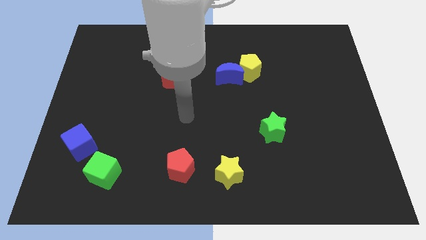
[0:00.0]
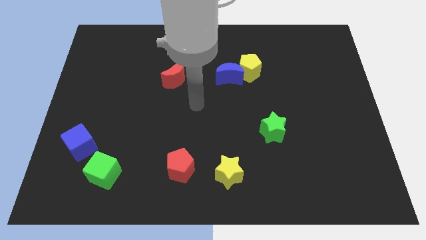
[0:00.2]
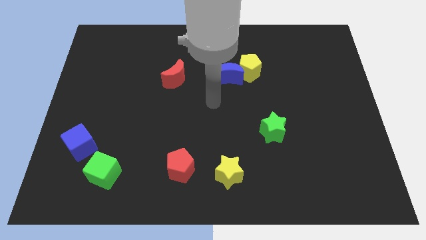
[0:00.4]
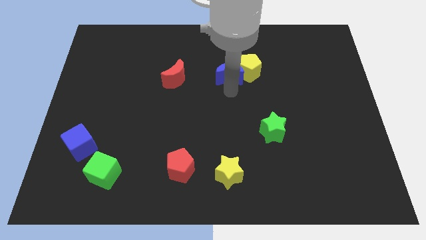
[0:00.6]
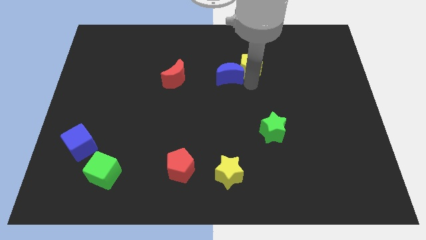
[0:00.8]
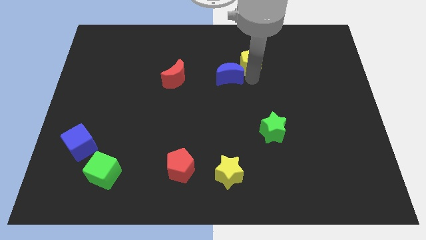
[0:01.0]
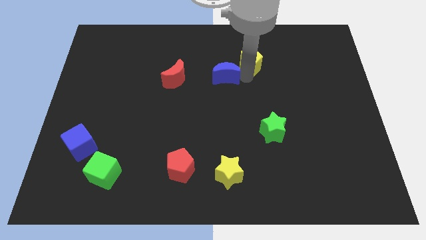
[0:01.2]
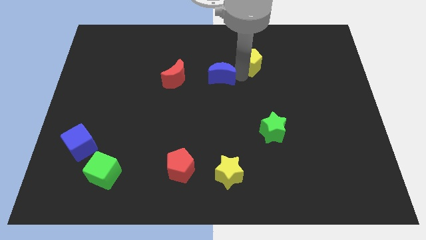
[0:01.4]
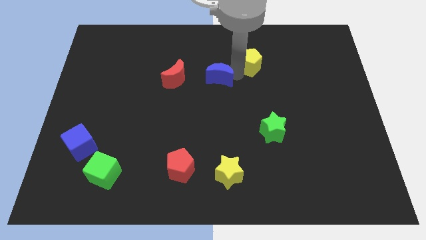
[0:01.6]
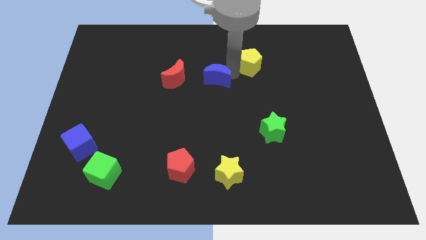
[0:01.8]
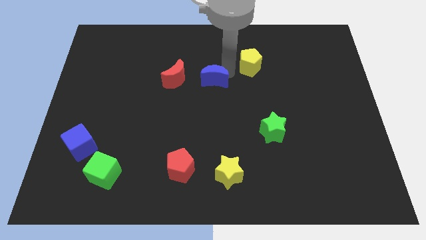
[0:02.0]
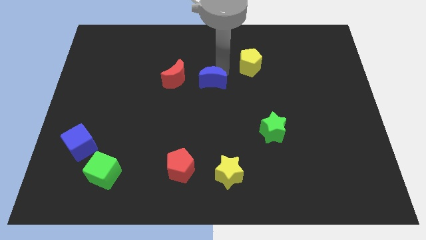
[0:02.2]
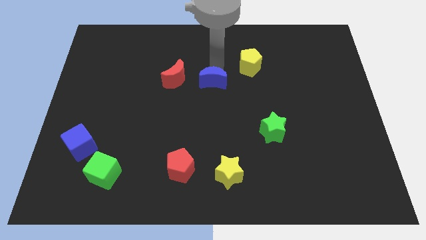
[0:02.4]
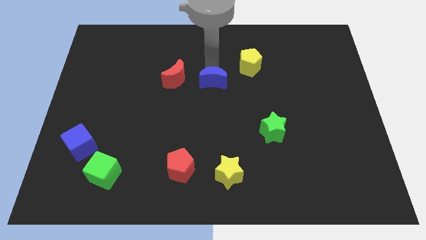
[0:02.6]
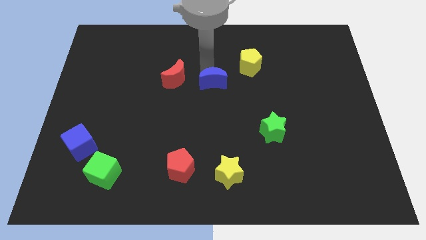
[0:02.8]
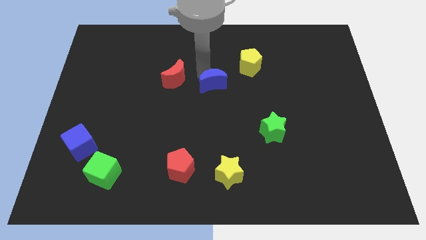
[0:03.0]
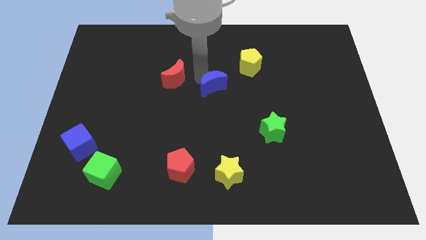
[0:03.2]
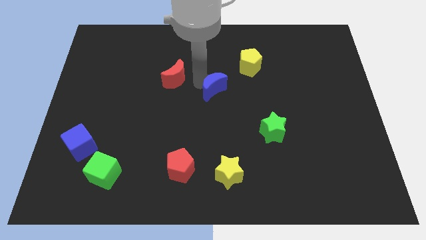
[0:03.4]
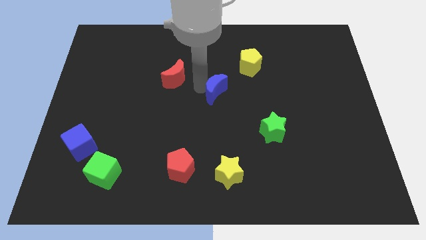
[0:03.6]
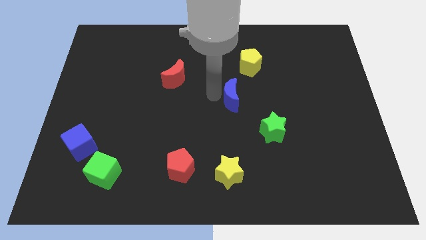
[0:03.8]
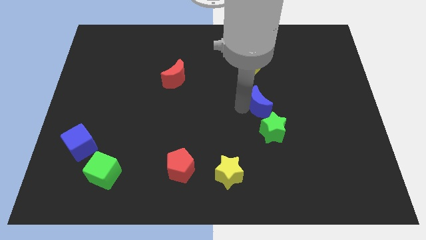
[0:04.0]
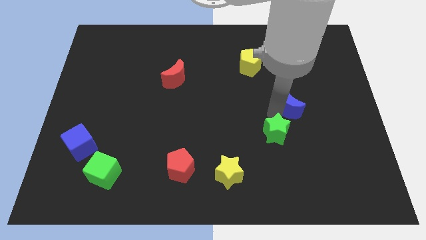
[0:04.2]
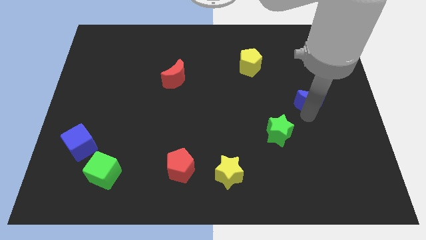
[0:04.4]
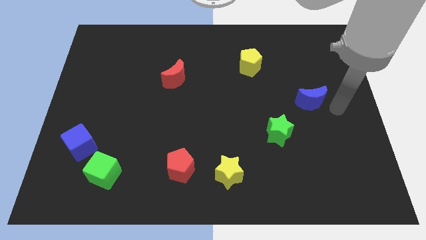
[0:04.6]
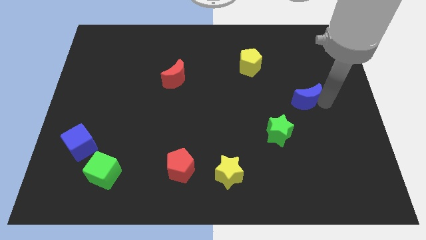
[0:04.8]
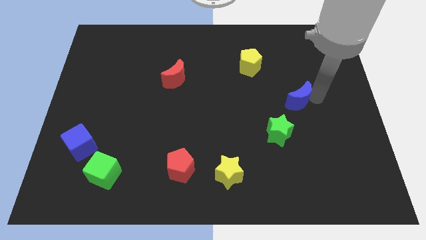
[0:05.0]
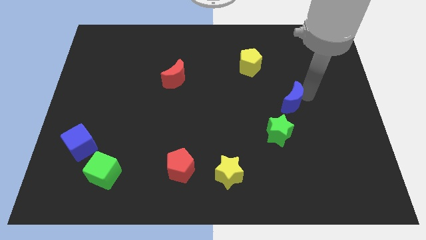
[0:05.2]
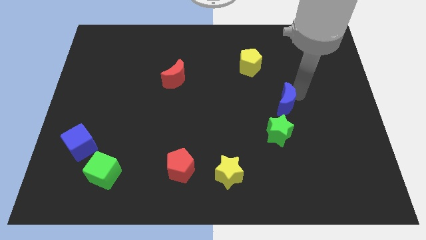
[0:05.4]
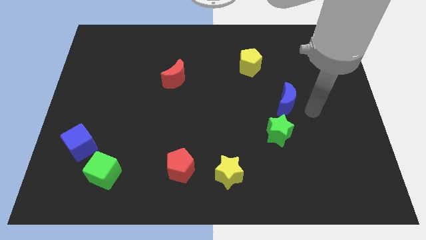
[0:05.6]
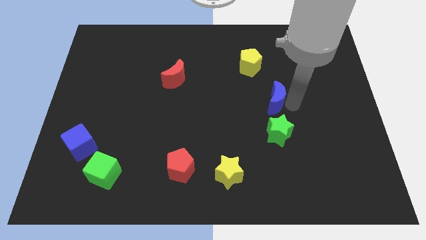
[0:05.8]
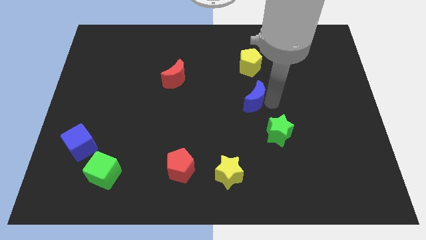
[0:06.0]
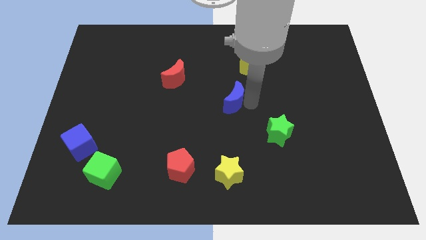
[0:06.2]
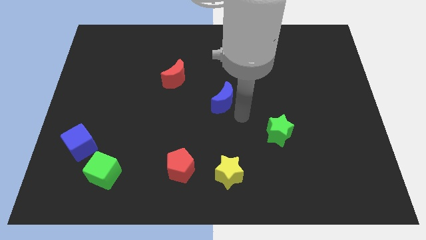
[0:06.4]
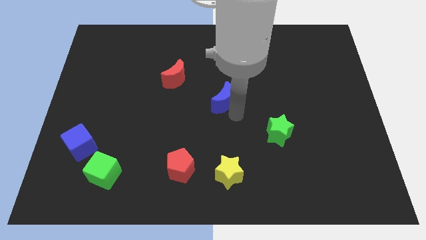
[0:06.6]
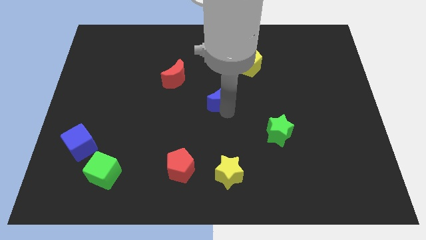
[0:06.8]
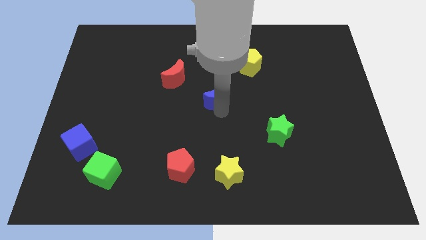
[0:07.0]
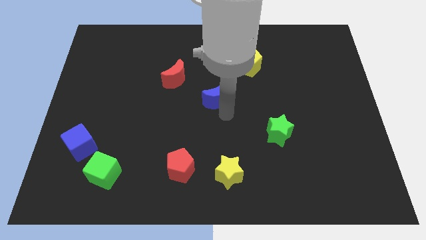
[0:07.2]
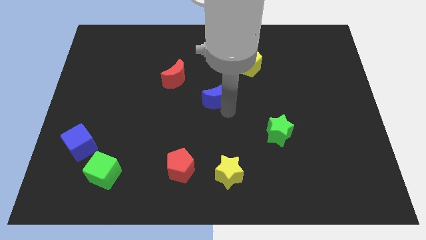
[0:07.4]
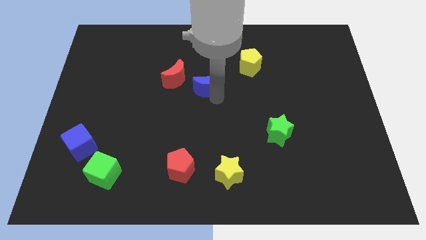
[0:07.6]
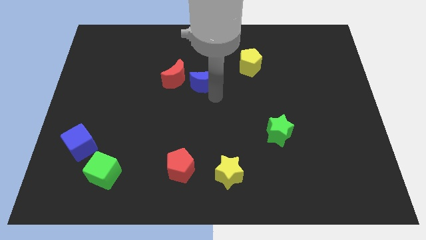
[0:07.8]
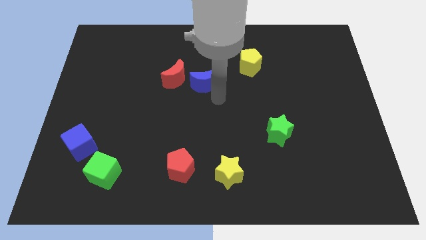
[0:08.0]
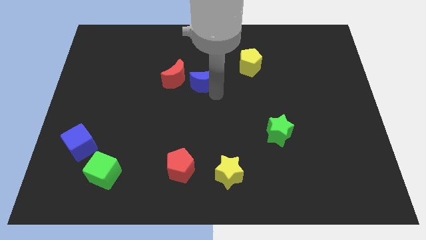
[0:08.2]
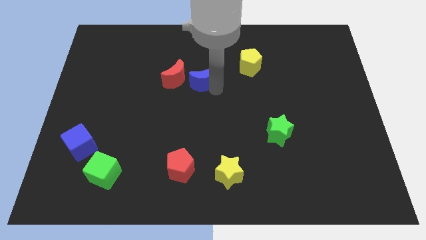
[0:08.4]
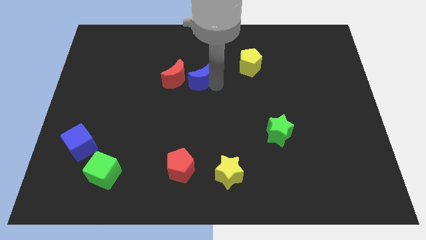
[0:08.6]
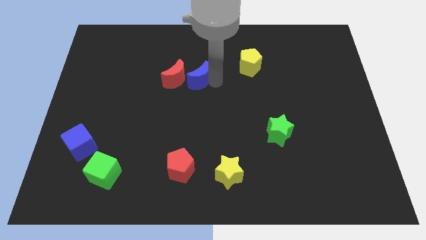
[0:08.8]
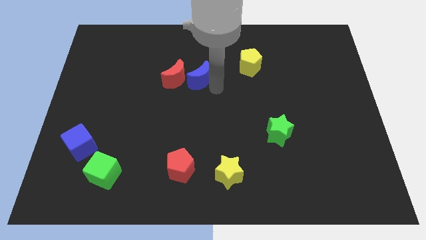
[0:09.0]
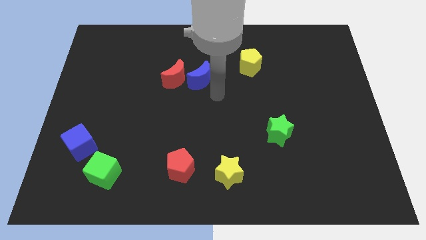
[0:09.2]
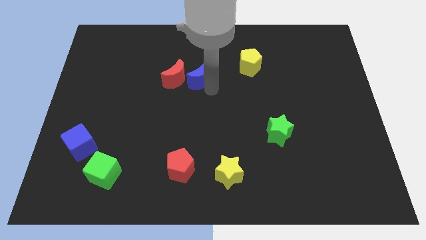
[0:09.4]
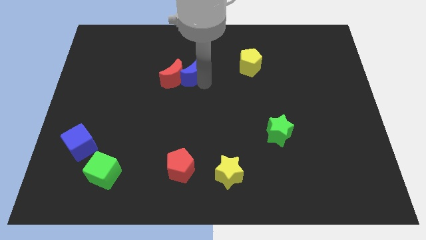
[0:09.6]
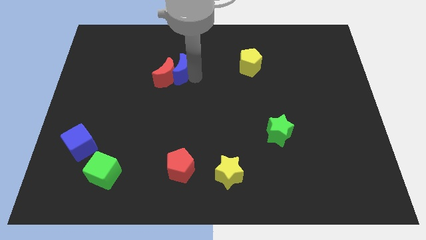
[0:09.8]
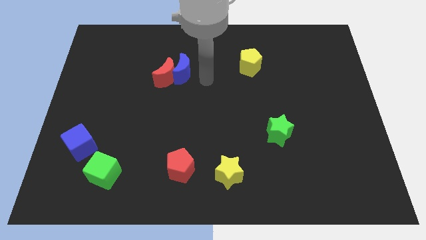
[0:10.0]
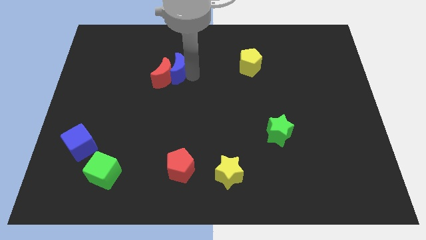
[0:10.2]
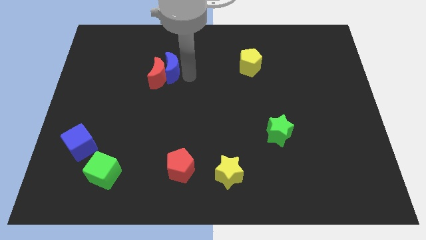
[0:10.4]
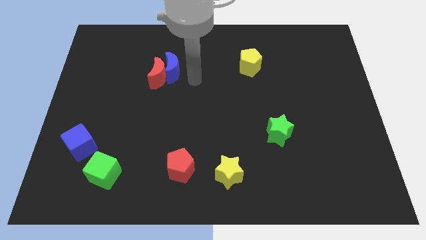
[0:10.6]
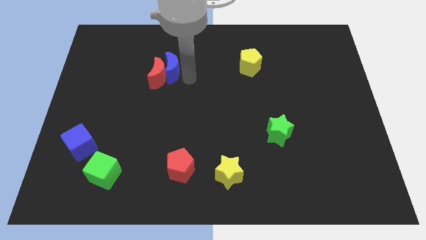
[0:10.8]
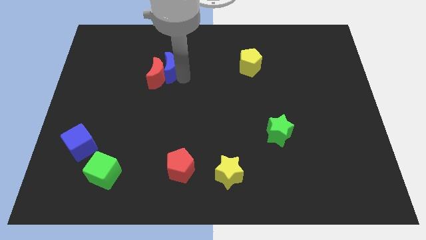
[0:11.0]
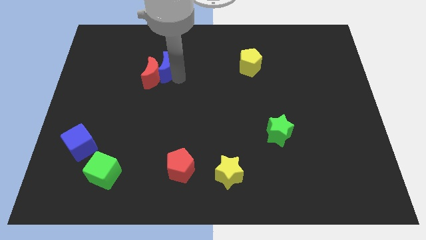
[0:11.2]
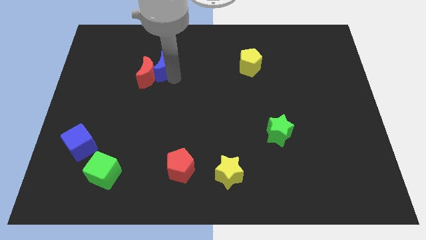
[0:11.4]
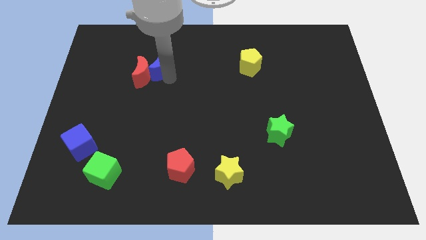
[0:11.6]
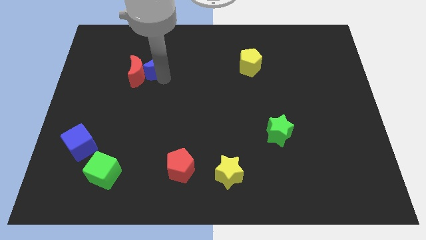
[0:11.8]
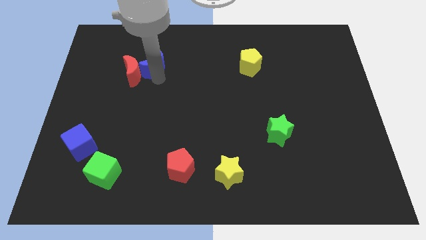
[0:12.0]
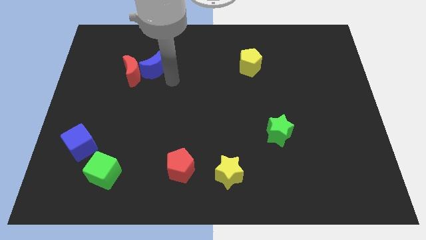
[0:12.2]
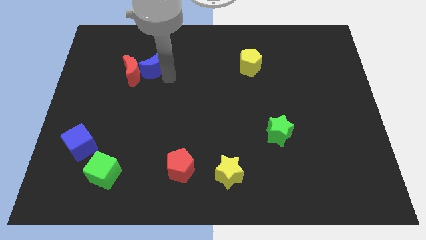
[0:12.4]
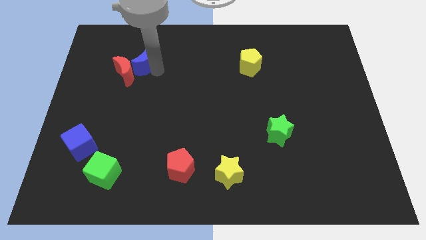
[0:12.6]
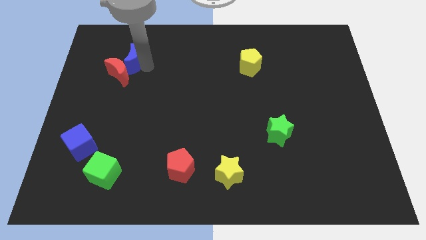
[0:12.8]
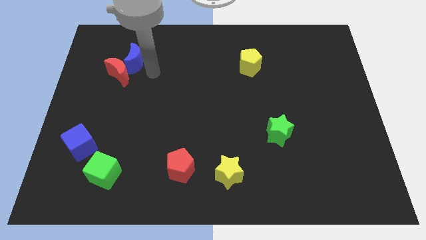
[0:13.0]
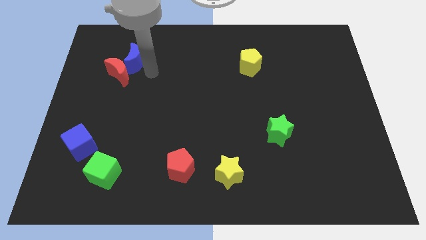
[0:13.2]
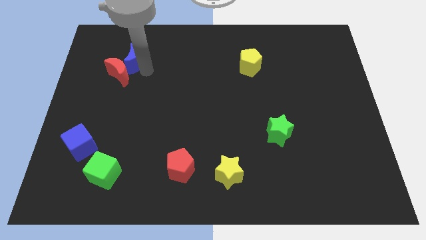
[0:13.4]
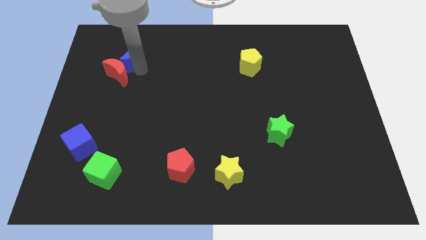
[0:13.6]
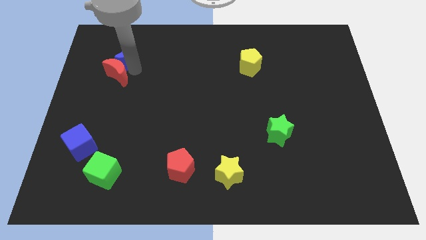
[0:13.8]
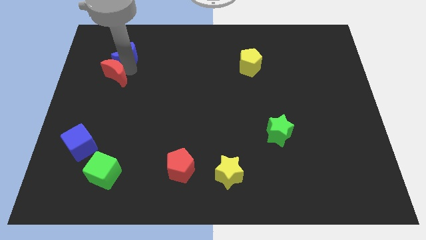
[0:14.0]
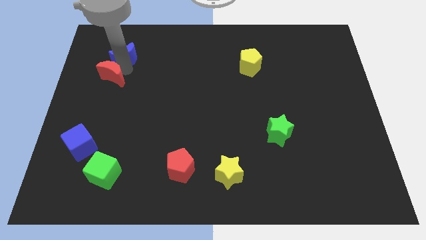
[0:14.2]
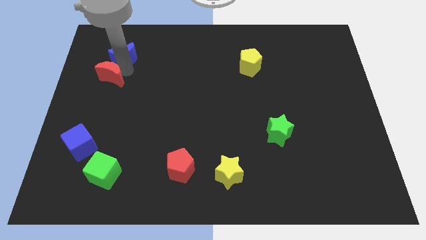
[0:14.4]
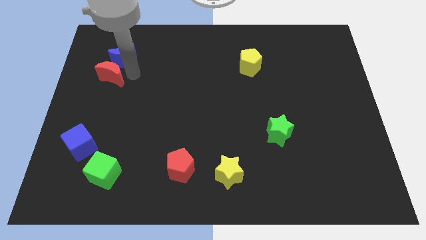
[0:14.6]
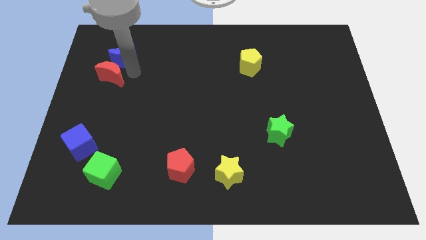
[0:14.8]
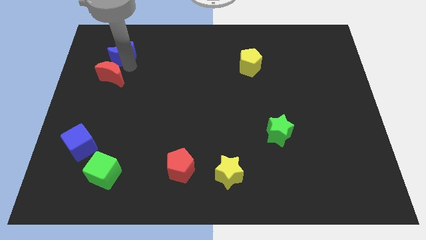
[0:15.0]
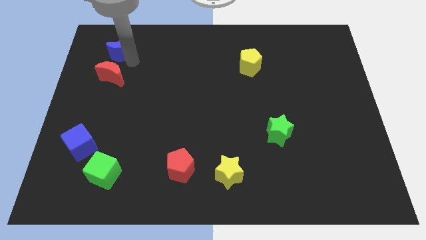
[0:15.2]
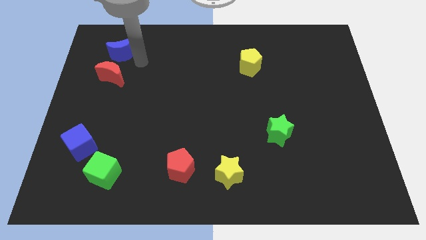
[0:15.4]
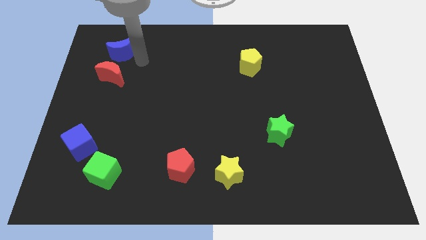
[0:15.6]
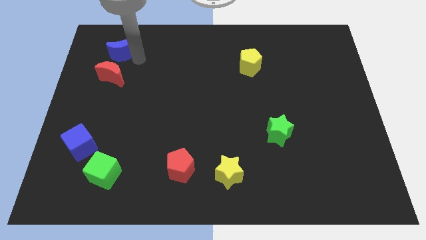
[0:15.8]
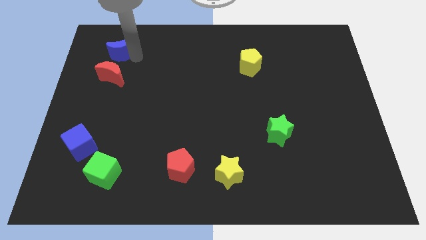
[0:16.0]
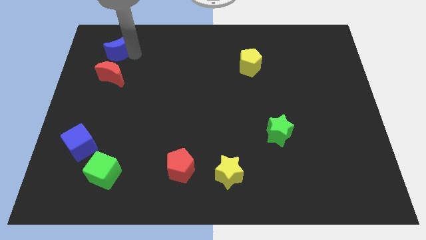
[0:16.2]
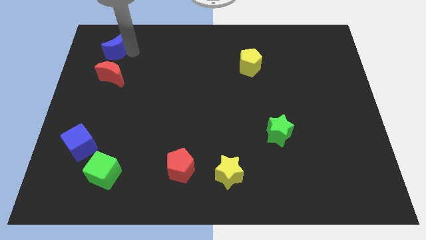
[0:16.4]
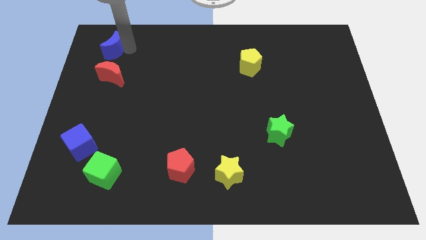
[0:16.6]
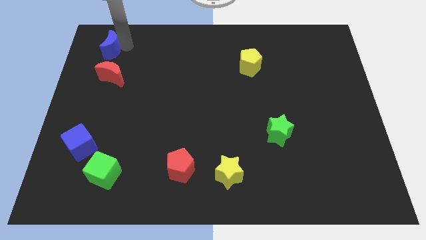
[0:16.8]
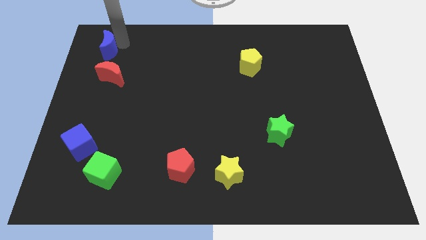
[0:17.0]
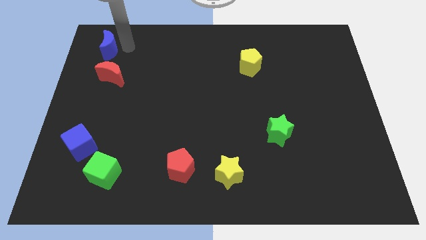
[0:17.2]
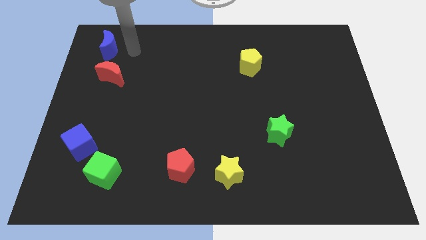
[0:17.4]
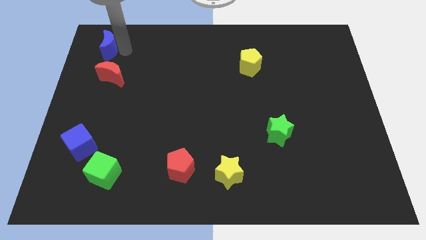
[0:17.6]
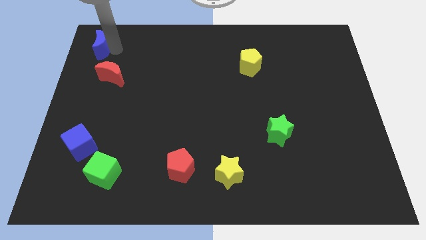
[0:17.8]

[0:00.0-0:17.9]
push the blue moon to the top left of the board
